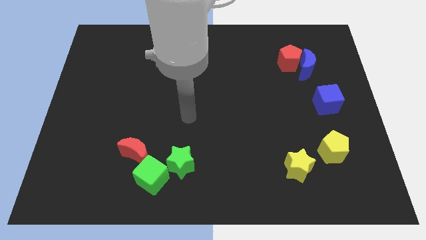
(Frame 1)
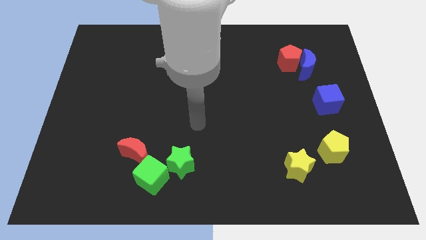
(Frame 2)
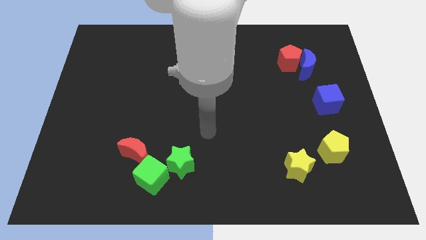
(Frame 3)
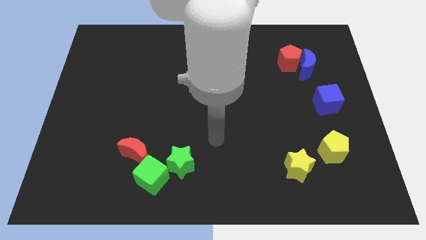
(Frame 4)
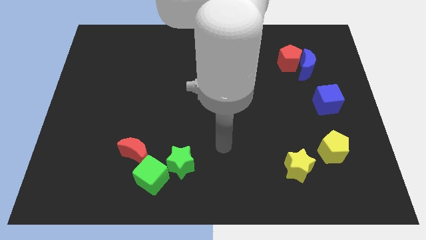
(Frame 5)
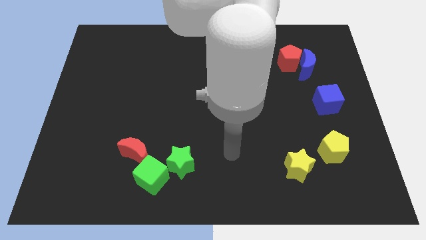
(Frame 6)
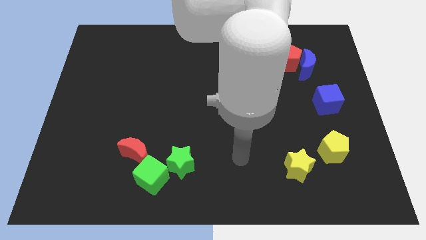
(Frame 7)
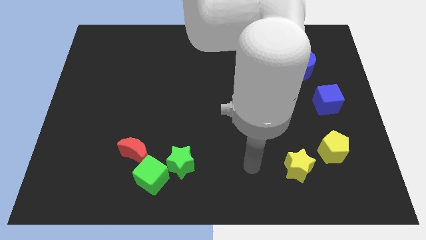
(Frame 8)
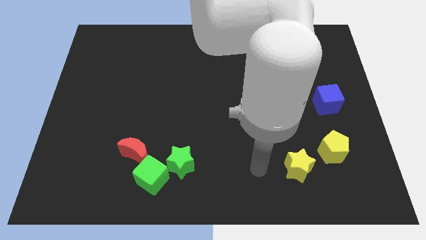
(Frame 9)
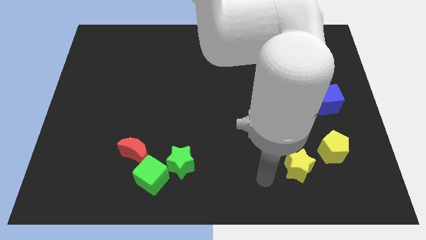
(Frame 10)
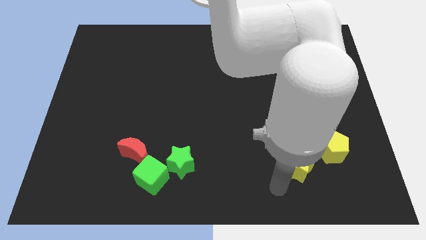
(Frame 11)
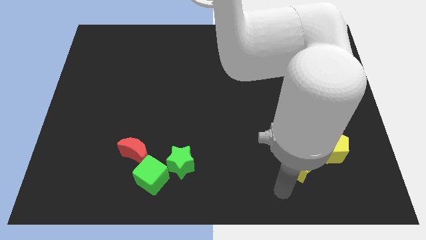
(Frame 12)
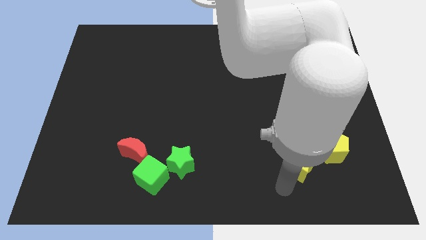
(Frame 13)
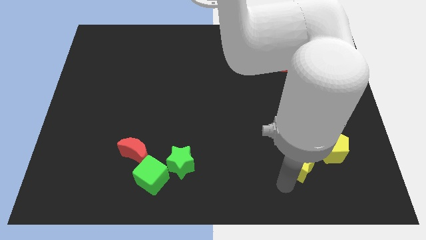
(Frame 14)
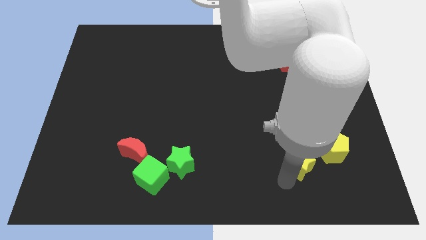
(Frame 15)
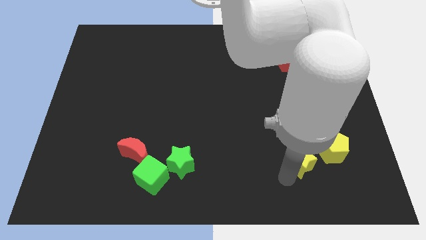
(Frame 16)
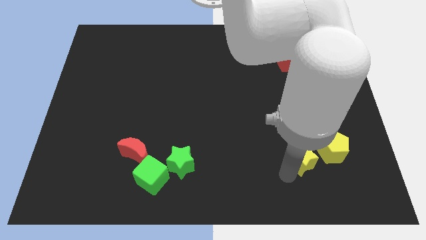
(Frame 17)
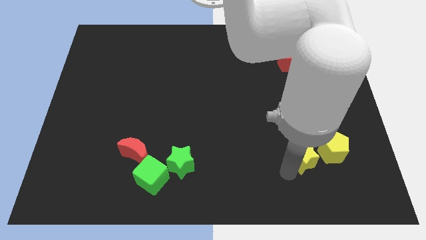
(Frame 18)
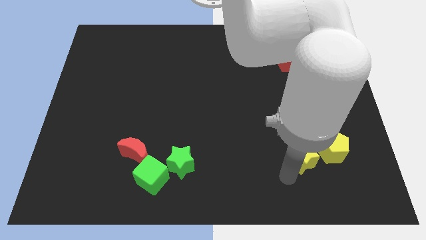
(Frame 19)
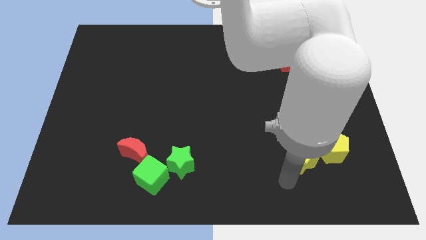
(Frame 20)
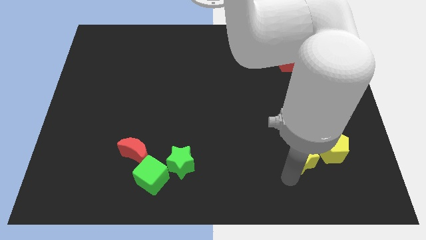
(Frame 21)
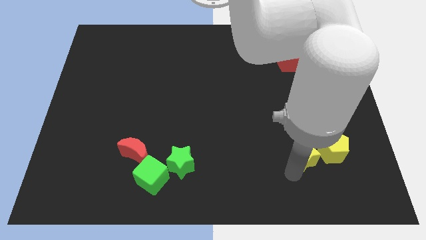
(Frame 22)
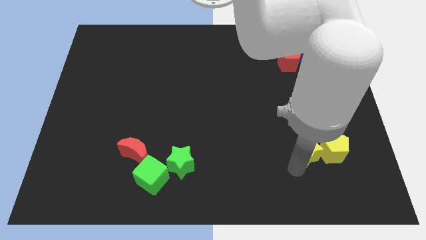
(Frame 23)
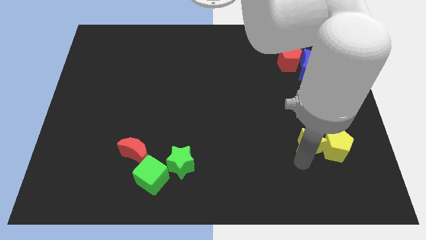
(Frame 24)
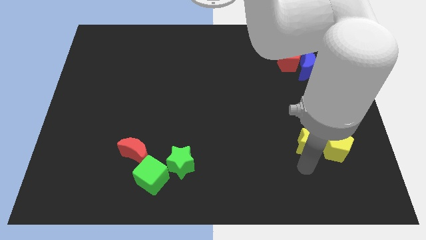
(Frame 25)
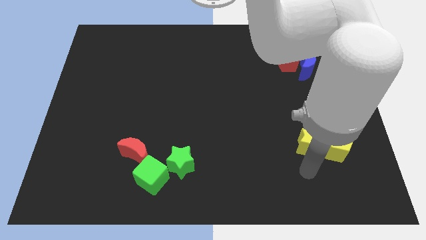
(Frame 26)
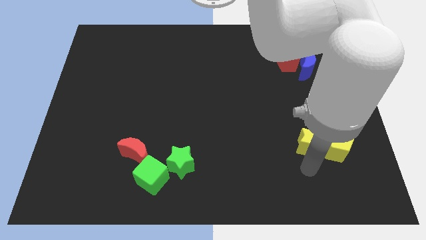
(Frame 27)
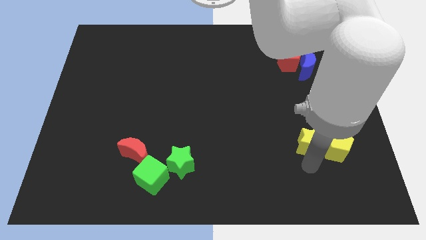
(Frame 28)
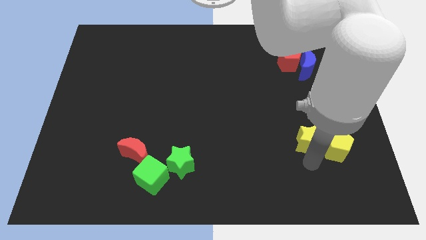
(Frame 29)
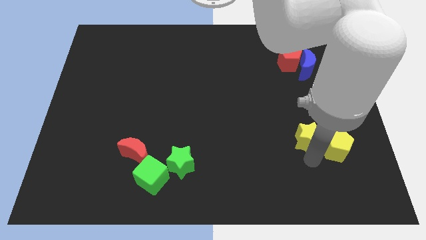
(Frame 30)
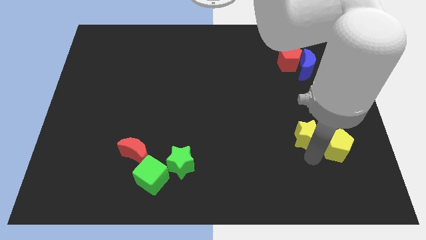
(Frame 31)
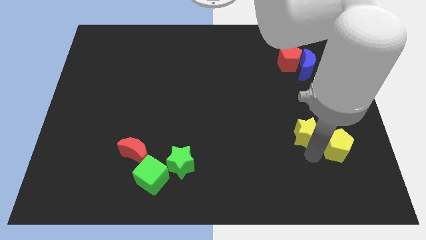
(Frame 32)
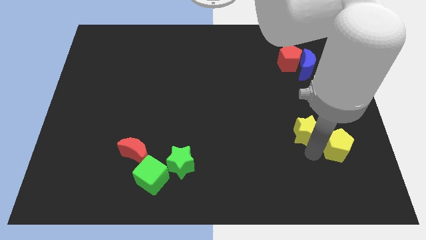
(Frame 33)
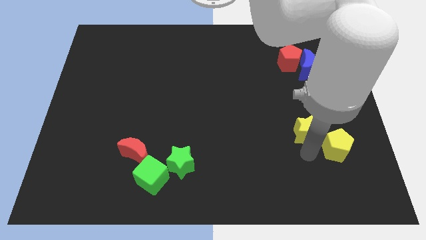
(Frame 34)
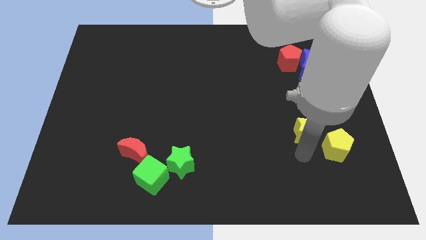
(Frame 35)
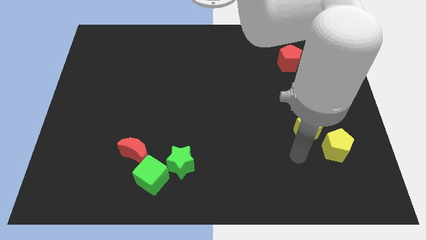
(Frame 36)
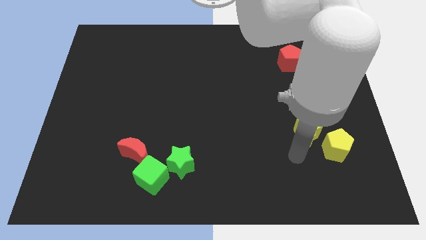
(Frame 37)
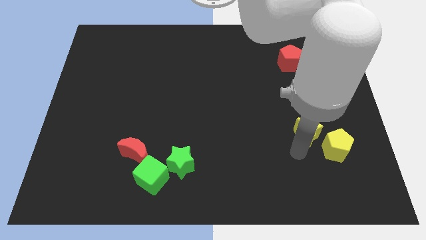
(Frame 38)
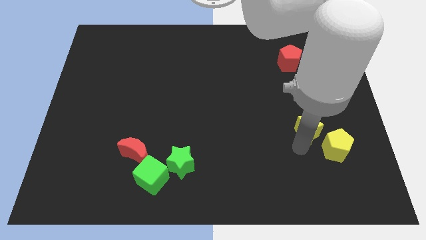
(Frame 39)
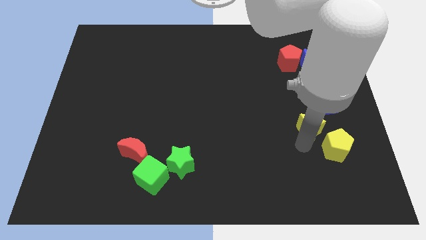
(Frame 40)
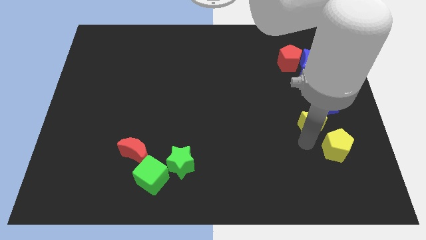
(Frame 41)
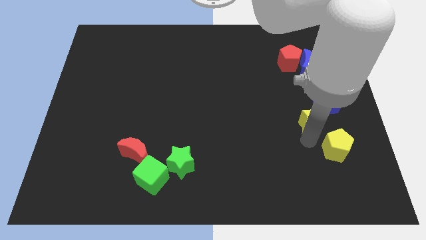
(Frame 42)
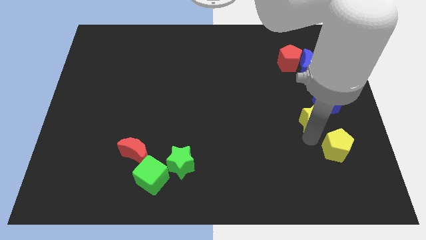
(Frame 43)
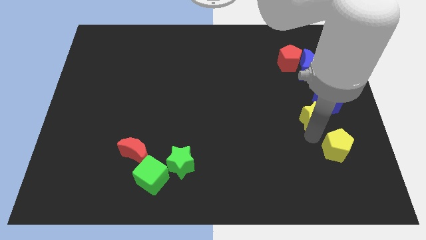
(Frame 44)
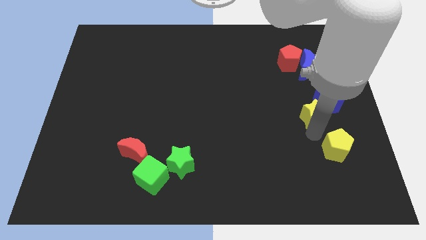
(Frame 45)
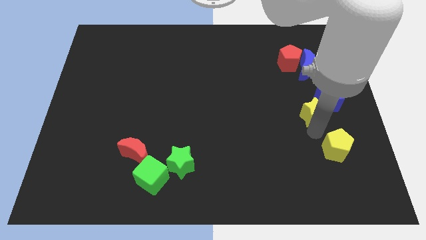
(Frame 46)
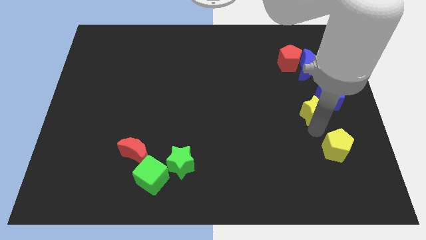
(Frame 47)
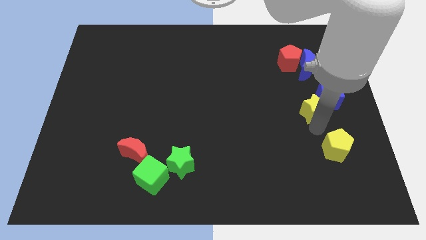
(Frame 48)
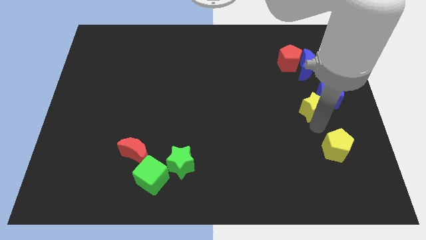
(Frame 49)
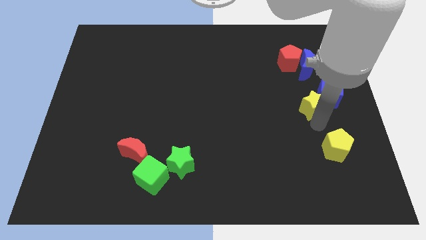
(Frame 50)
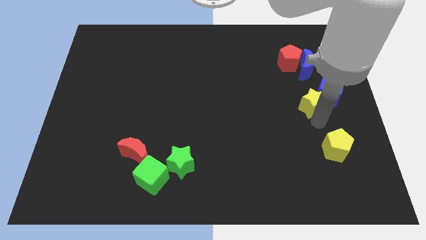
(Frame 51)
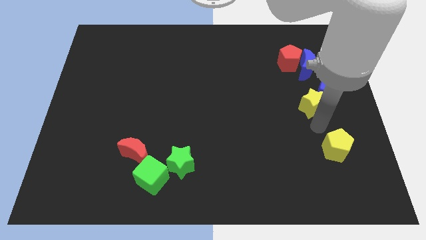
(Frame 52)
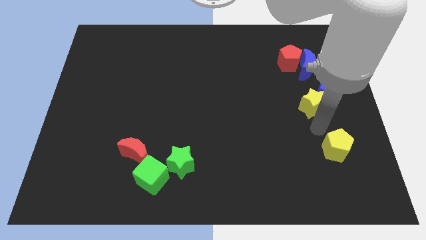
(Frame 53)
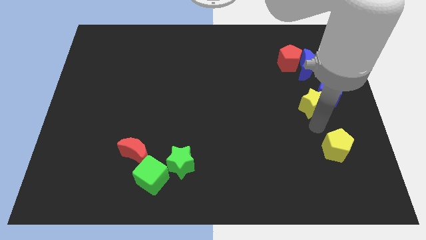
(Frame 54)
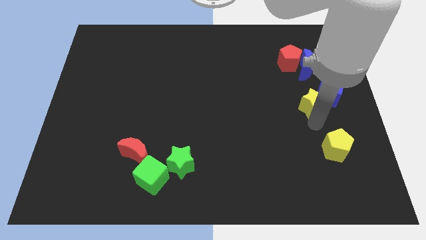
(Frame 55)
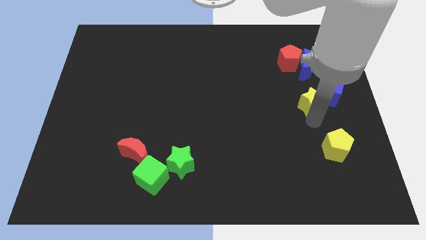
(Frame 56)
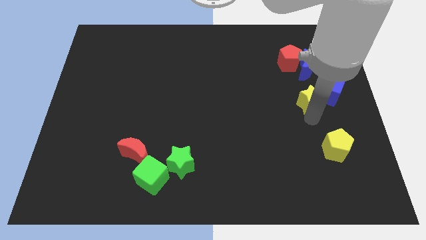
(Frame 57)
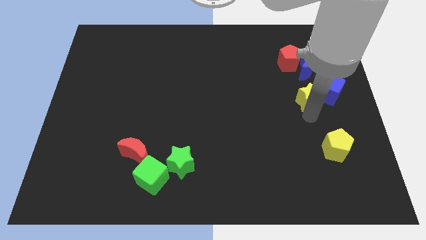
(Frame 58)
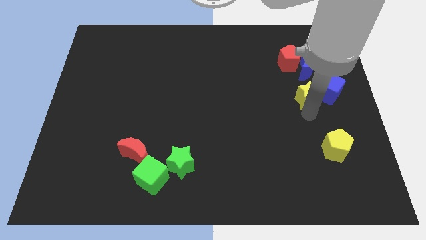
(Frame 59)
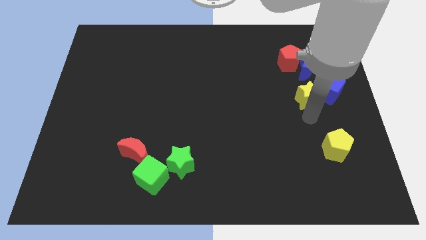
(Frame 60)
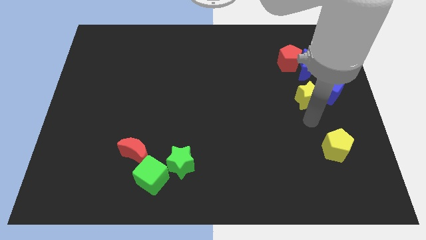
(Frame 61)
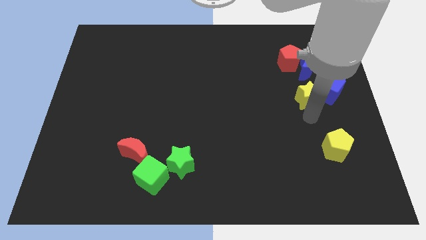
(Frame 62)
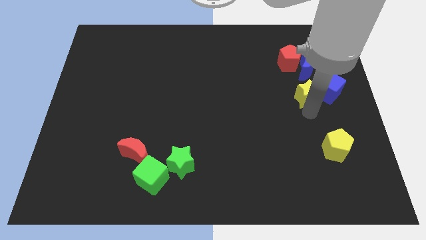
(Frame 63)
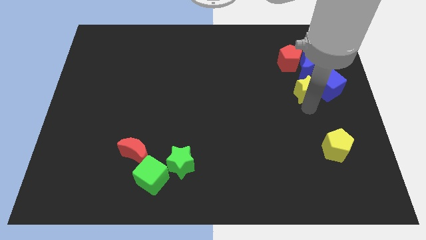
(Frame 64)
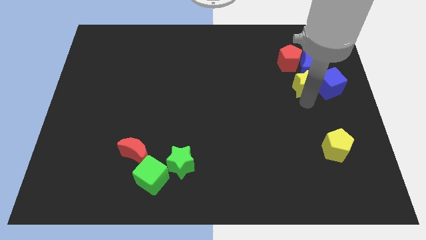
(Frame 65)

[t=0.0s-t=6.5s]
put the yellow star to the bottom right side of the red pentagon

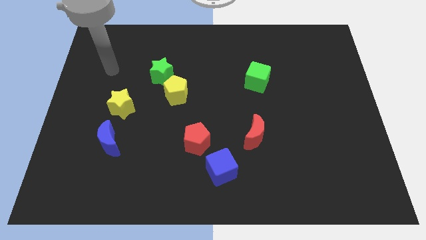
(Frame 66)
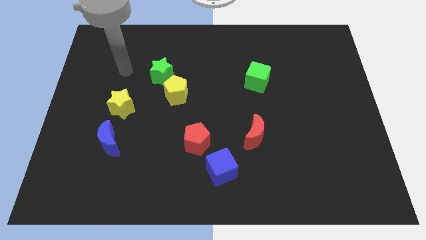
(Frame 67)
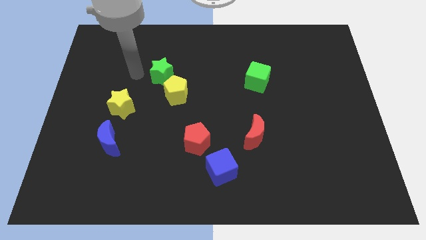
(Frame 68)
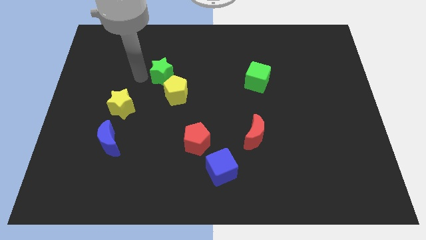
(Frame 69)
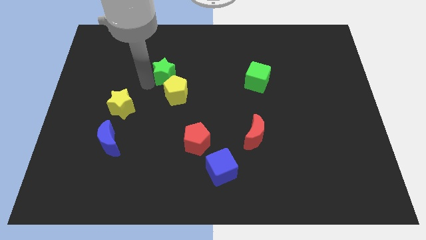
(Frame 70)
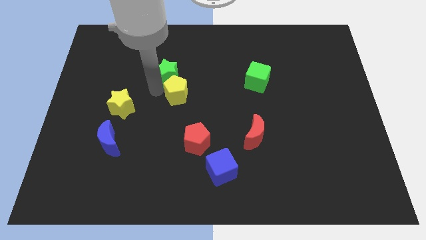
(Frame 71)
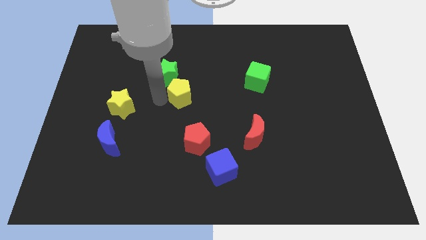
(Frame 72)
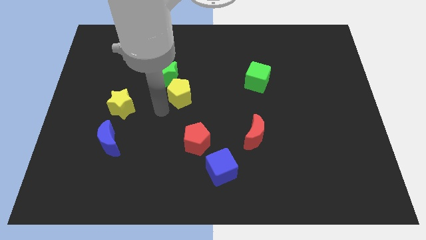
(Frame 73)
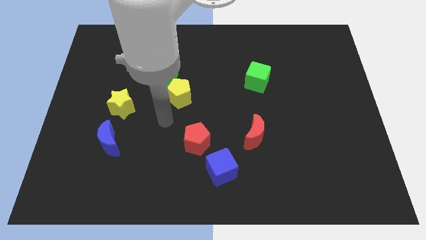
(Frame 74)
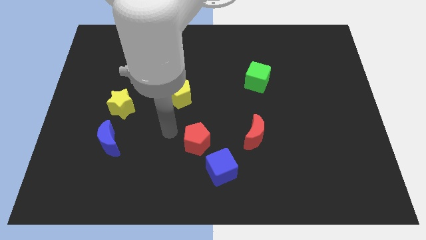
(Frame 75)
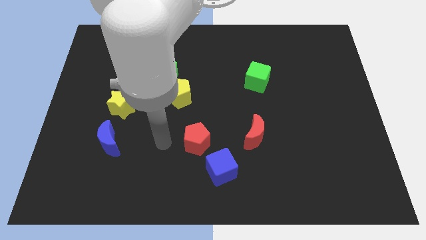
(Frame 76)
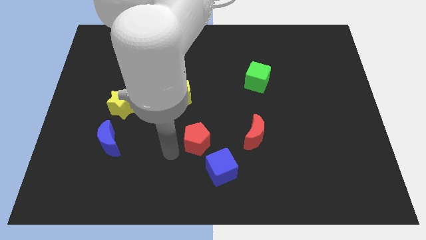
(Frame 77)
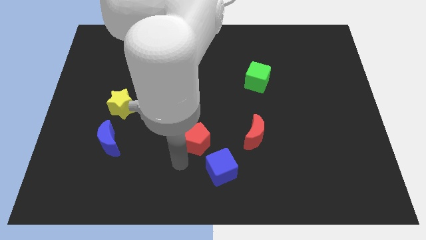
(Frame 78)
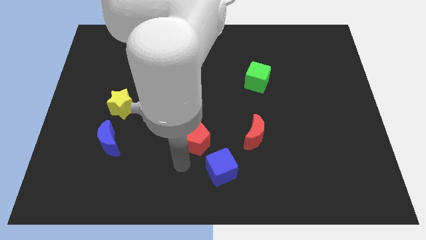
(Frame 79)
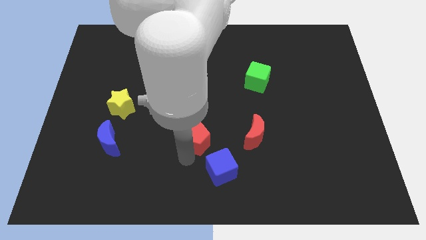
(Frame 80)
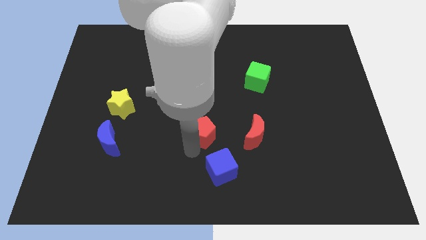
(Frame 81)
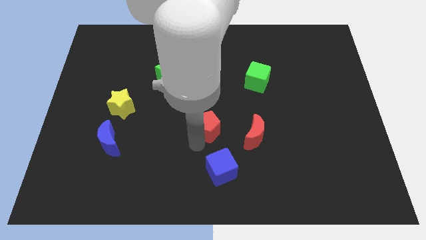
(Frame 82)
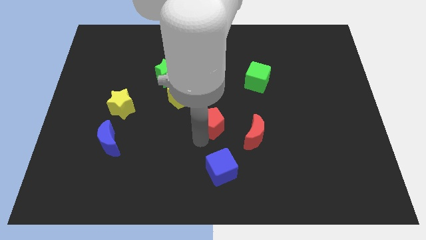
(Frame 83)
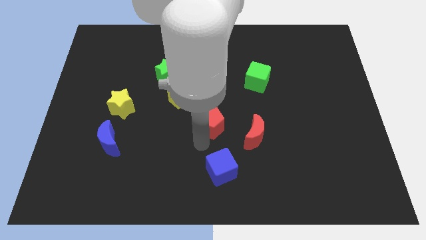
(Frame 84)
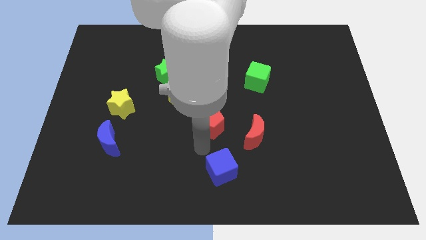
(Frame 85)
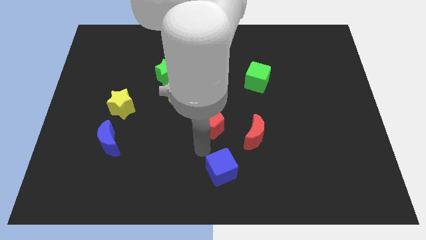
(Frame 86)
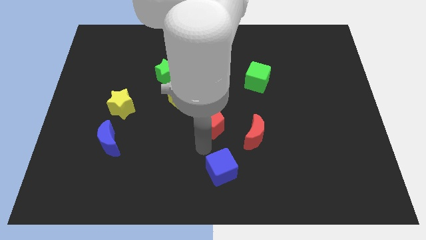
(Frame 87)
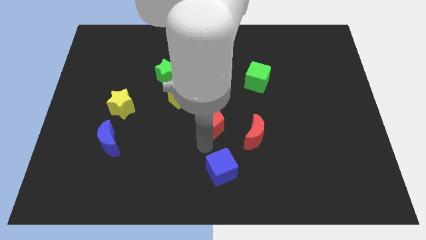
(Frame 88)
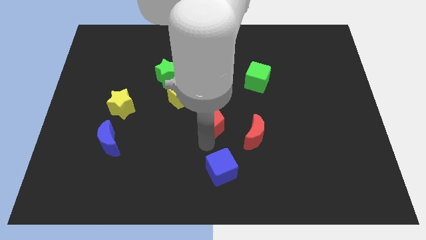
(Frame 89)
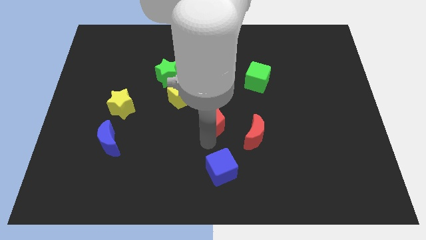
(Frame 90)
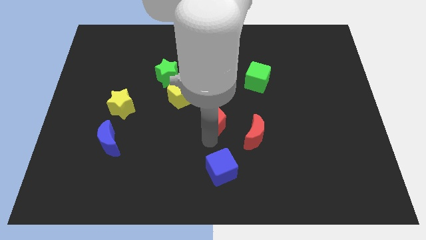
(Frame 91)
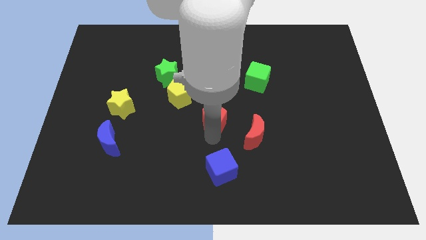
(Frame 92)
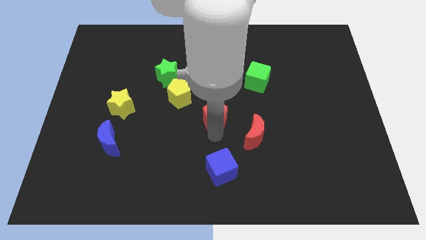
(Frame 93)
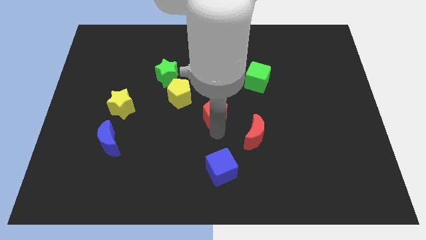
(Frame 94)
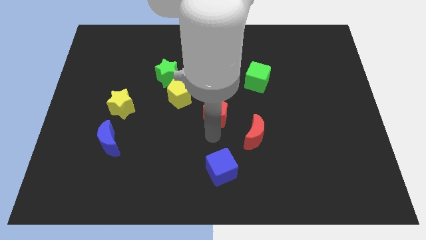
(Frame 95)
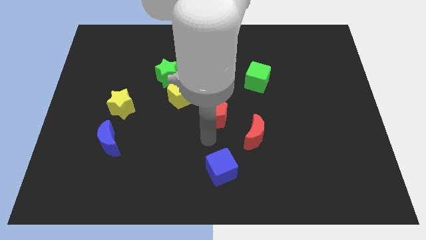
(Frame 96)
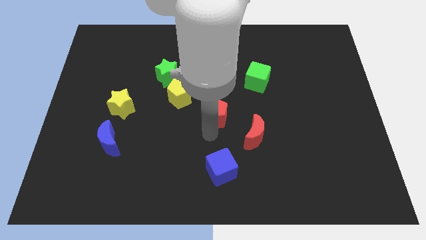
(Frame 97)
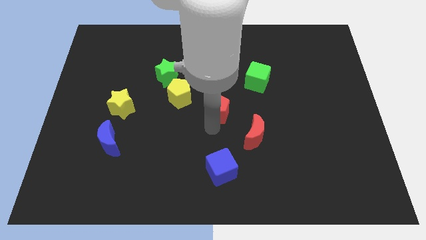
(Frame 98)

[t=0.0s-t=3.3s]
put the red pentagon to the right of the yellow pentagon
